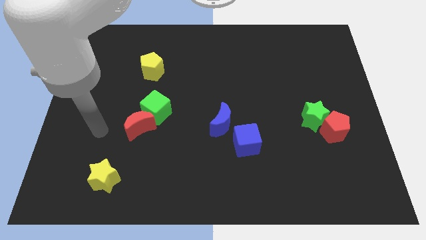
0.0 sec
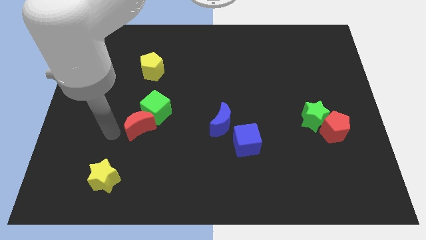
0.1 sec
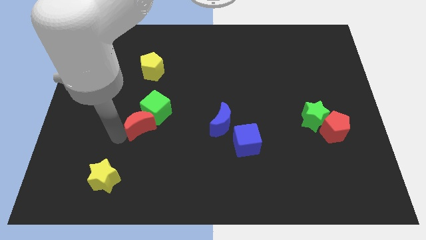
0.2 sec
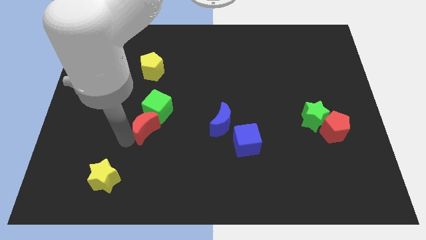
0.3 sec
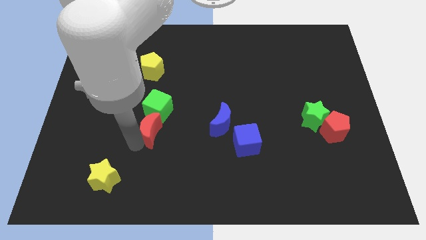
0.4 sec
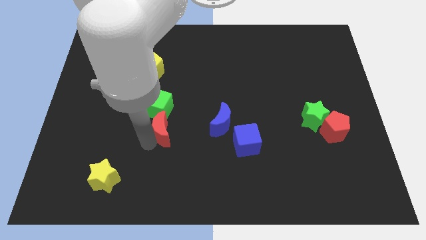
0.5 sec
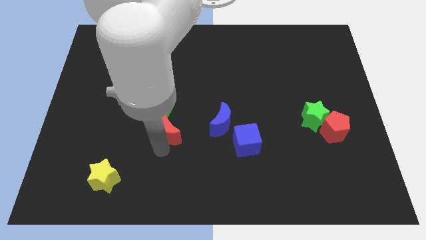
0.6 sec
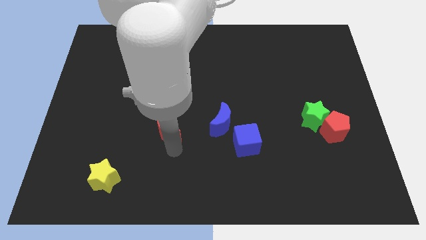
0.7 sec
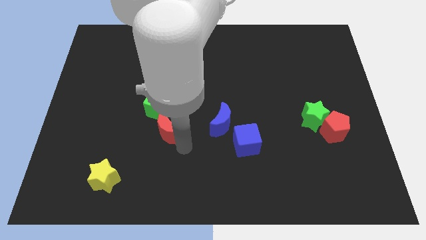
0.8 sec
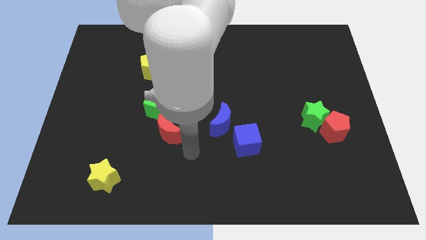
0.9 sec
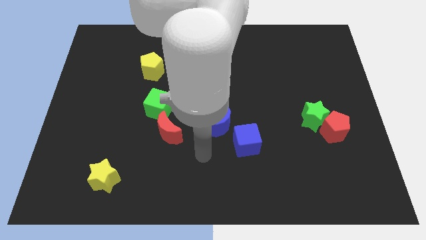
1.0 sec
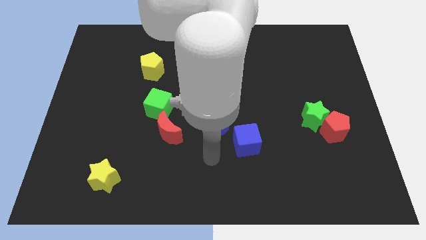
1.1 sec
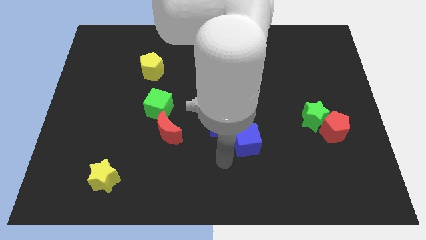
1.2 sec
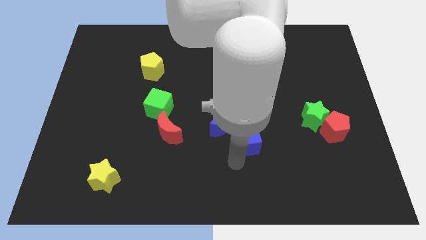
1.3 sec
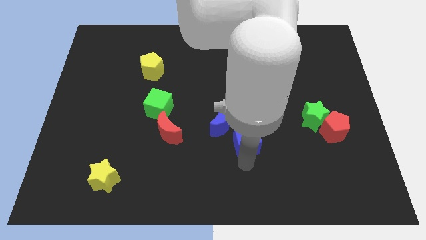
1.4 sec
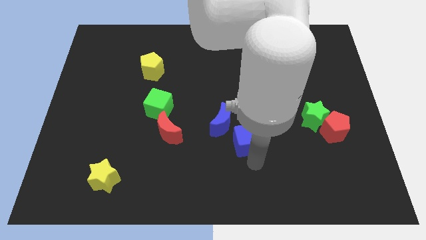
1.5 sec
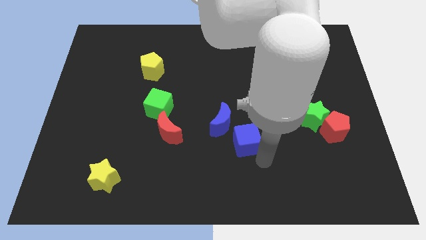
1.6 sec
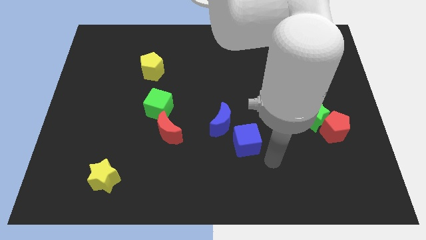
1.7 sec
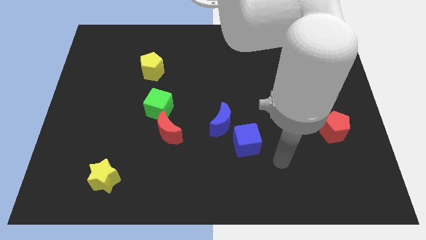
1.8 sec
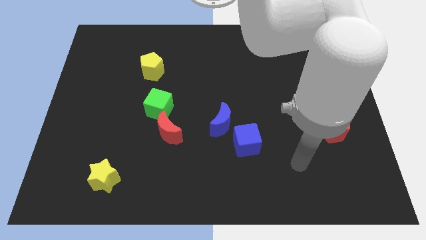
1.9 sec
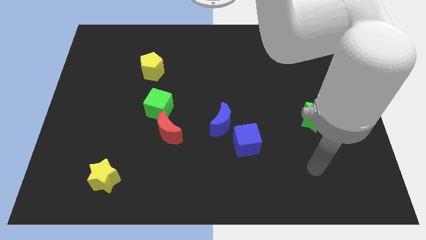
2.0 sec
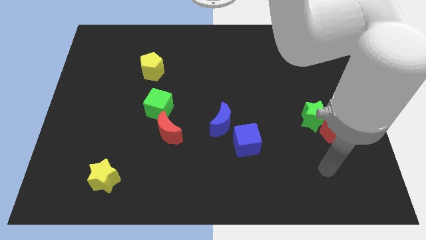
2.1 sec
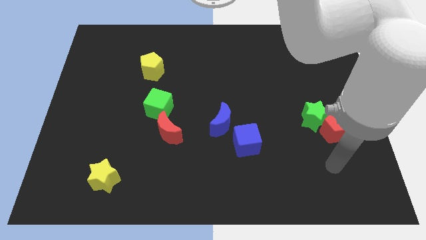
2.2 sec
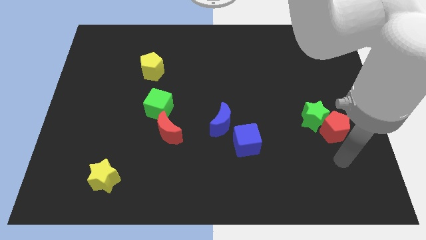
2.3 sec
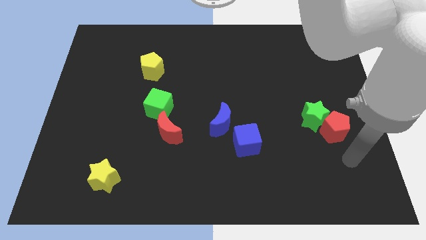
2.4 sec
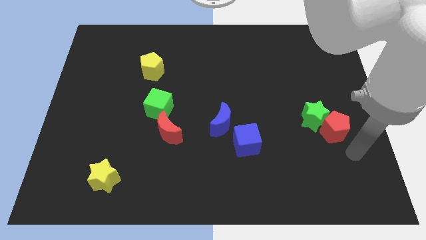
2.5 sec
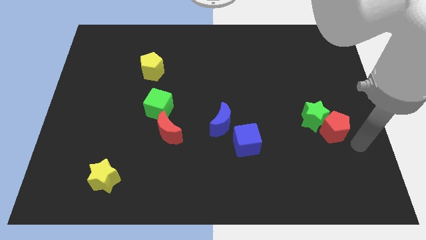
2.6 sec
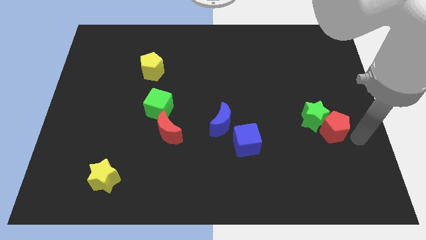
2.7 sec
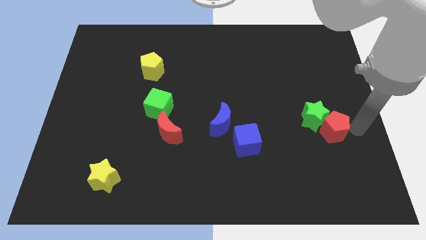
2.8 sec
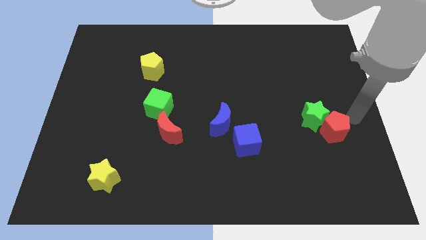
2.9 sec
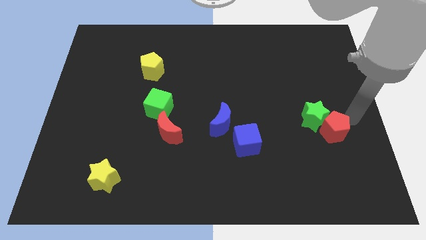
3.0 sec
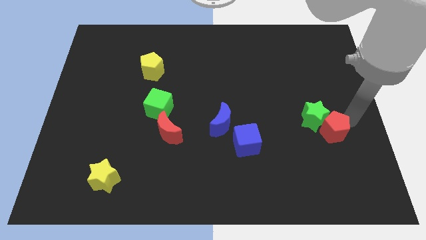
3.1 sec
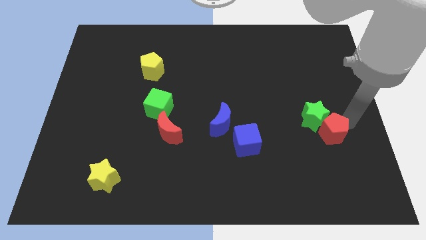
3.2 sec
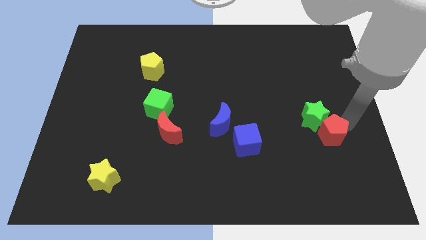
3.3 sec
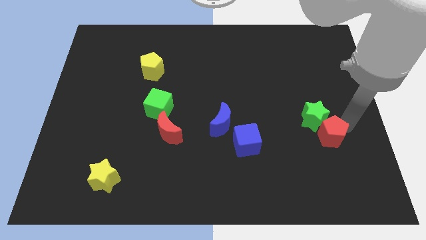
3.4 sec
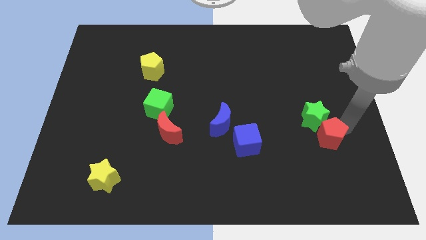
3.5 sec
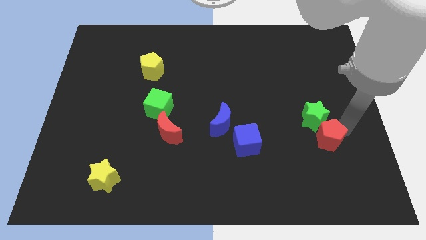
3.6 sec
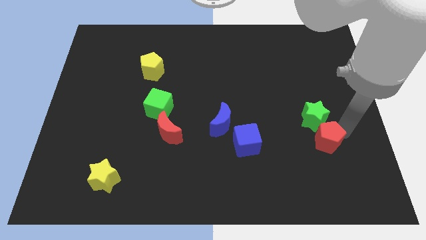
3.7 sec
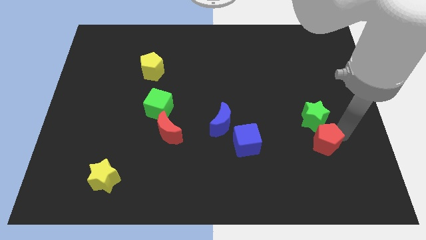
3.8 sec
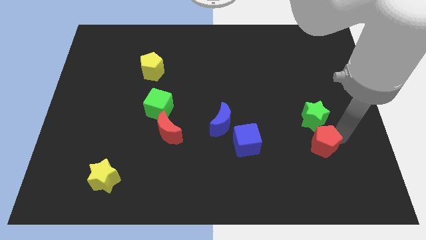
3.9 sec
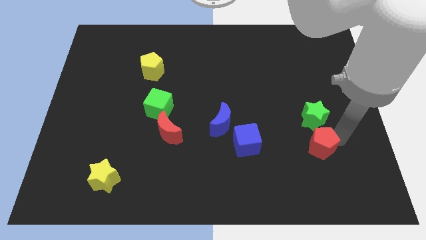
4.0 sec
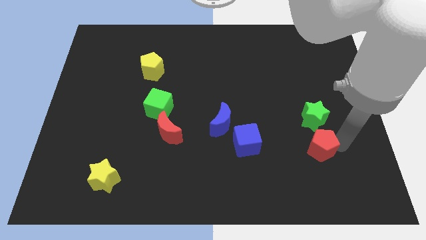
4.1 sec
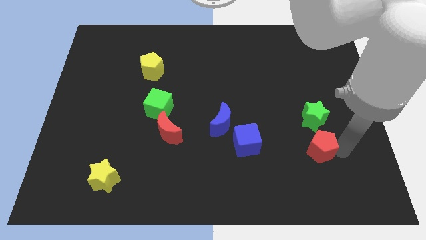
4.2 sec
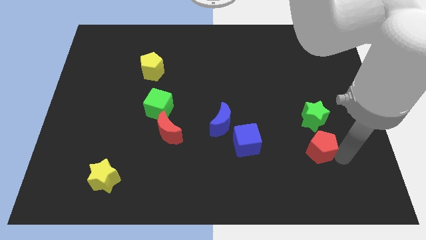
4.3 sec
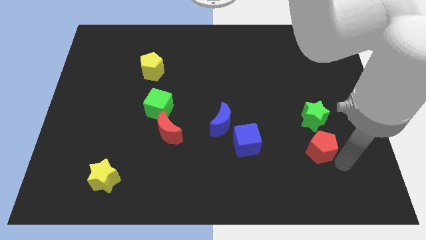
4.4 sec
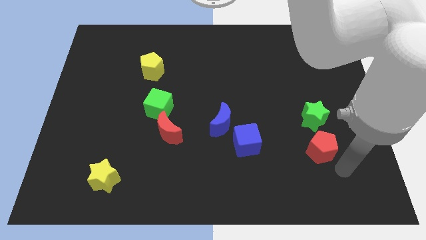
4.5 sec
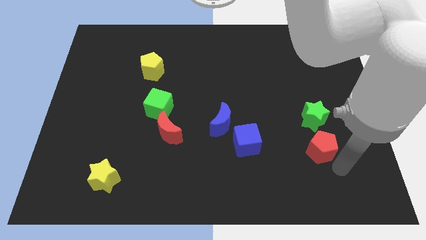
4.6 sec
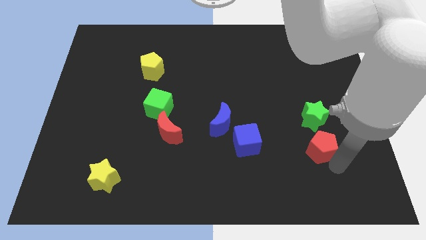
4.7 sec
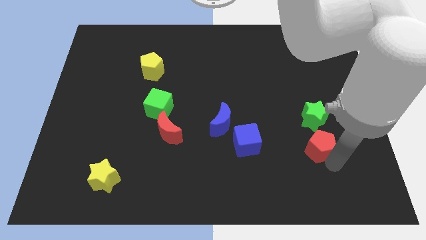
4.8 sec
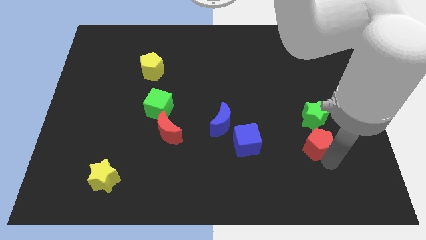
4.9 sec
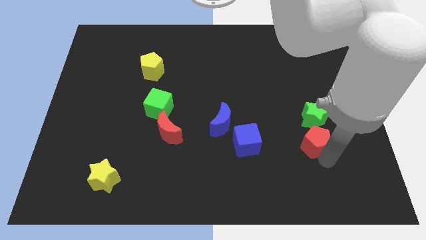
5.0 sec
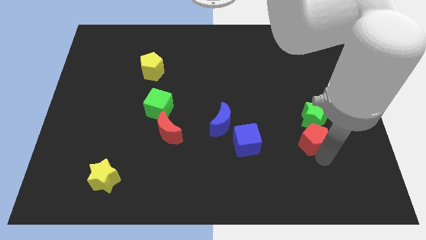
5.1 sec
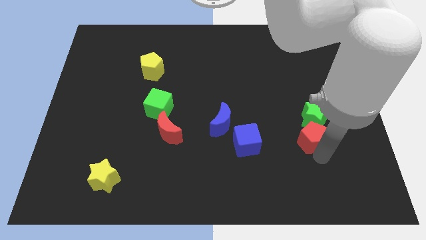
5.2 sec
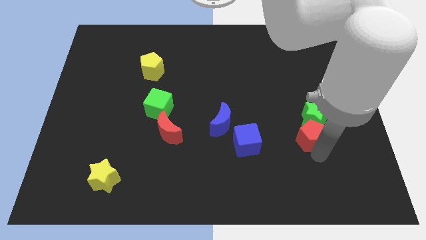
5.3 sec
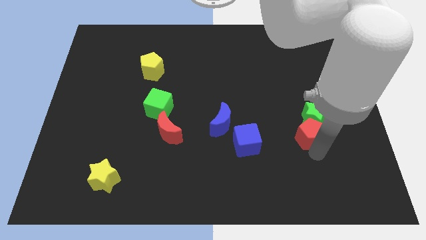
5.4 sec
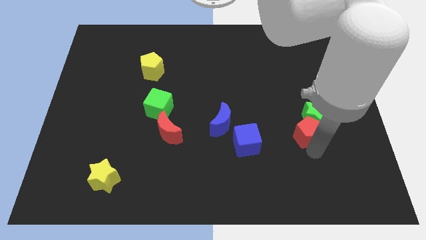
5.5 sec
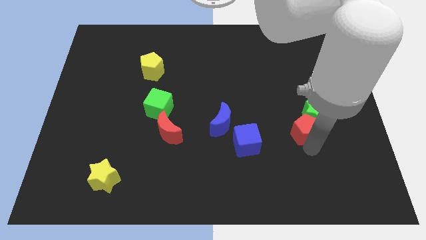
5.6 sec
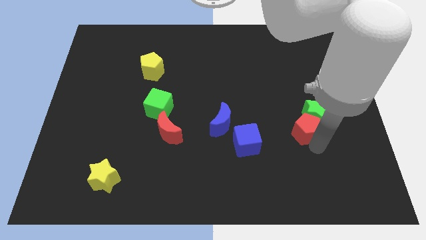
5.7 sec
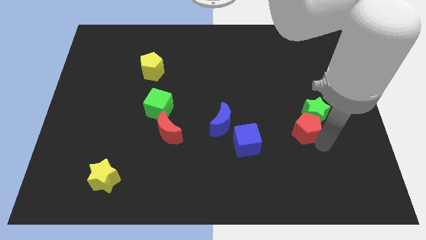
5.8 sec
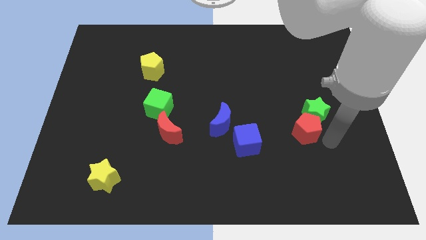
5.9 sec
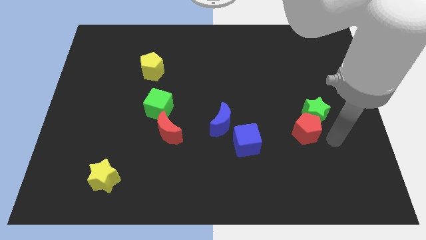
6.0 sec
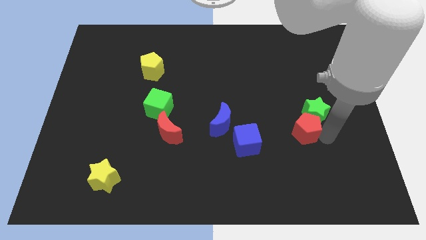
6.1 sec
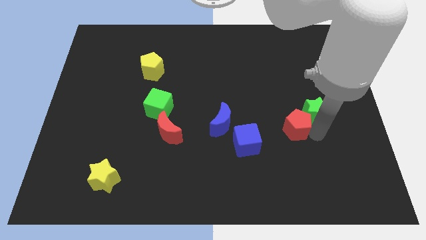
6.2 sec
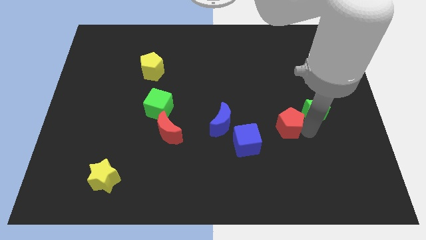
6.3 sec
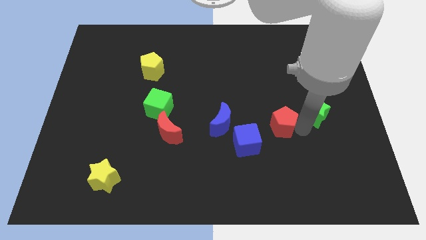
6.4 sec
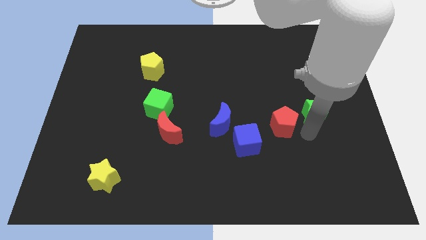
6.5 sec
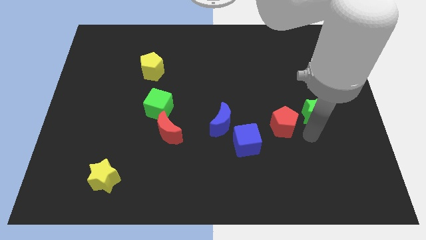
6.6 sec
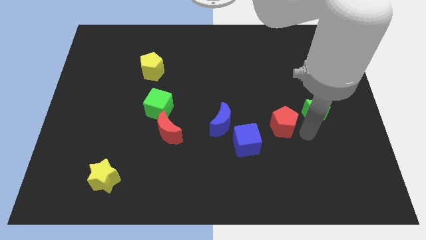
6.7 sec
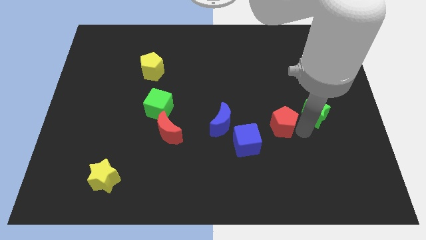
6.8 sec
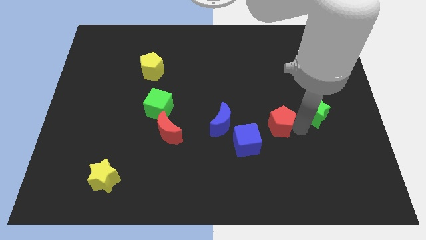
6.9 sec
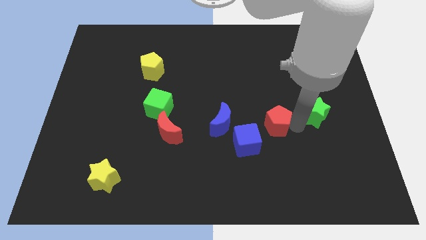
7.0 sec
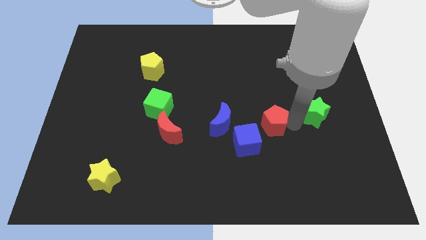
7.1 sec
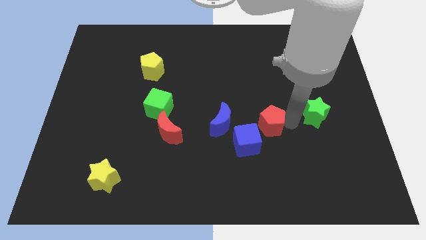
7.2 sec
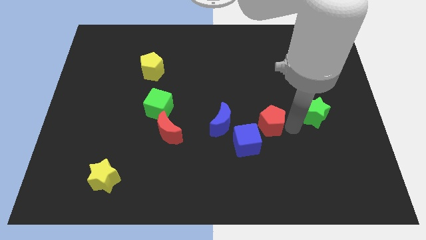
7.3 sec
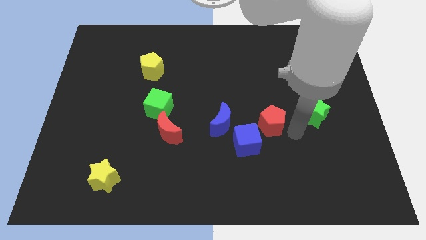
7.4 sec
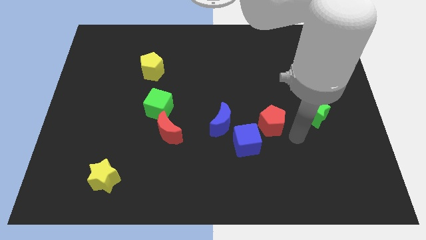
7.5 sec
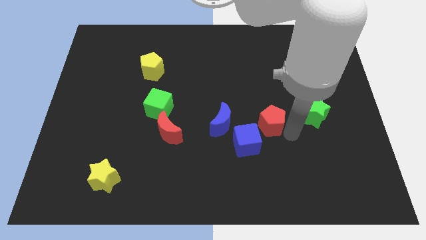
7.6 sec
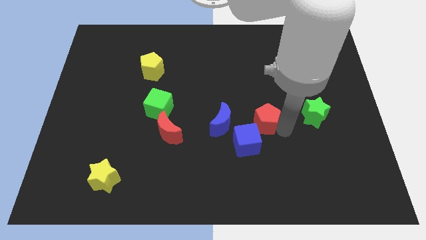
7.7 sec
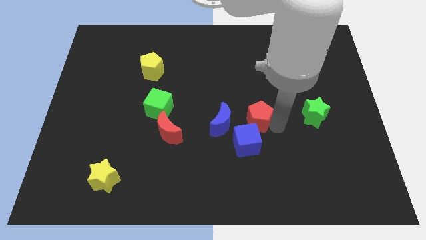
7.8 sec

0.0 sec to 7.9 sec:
move the red pentagon to the center

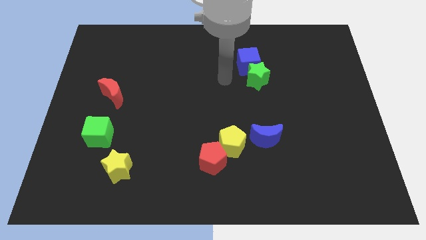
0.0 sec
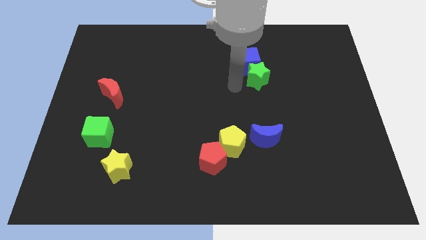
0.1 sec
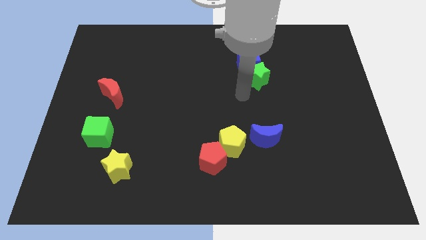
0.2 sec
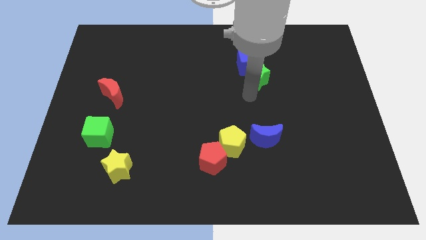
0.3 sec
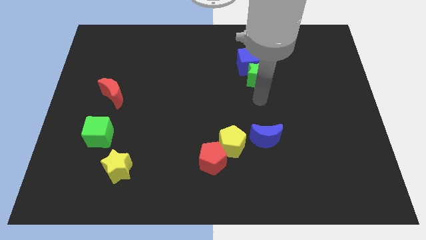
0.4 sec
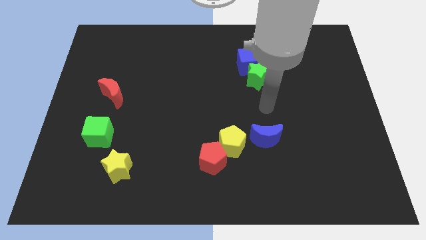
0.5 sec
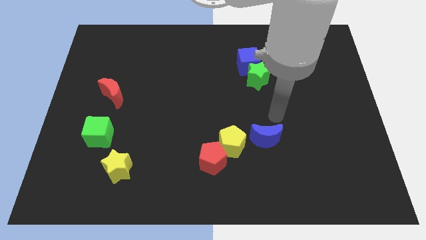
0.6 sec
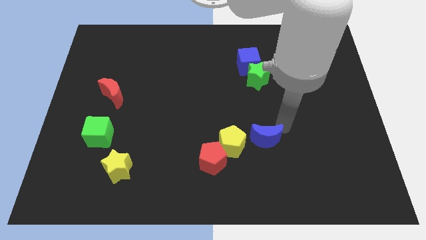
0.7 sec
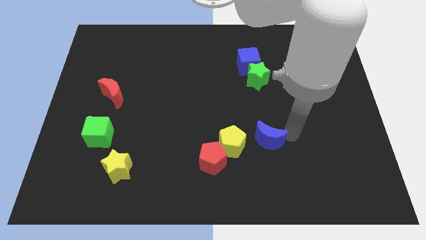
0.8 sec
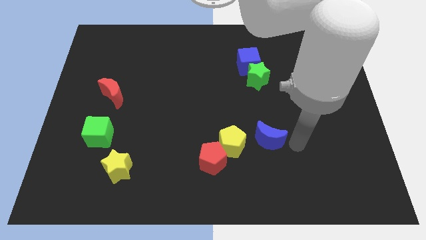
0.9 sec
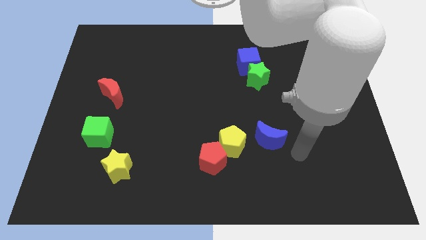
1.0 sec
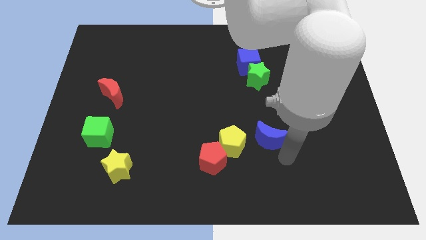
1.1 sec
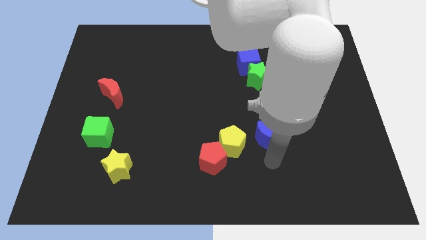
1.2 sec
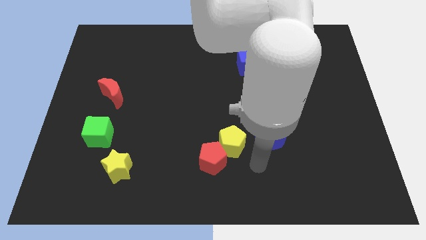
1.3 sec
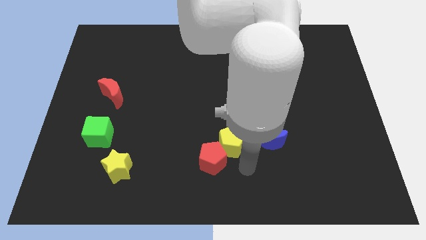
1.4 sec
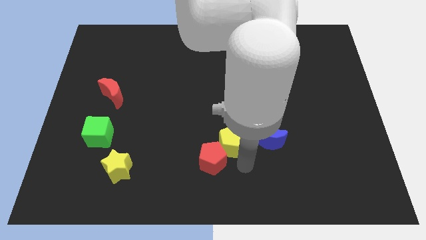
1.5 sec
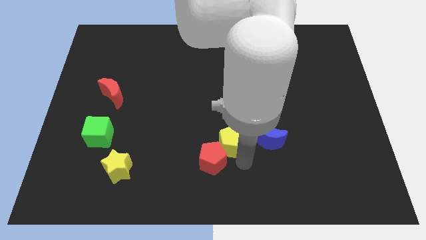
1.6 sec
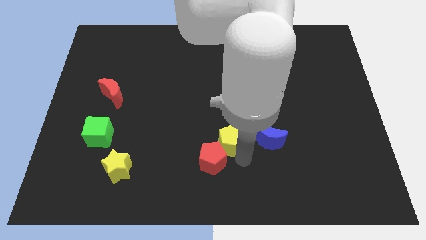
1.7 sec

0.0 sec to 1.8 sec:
move the yellow pentagon to the middle of the board
